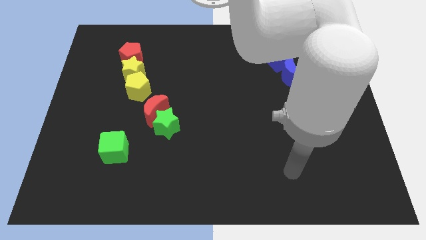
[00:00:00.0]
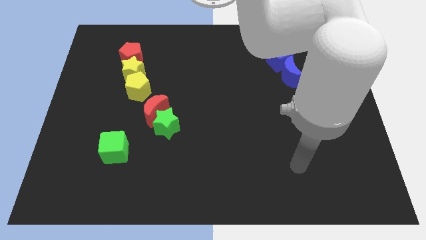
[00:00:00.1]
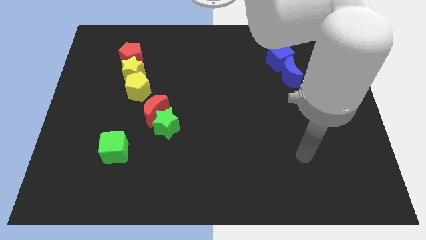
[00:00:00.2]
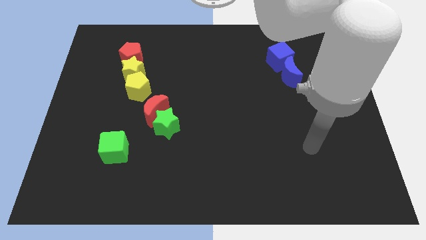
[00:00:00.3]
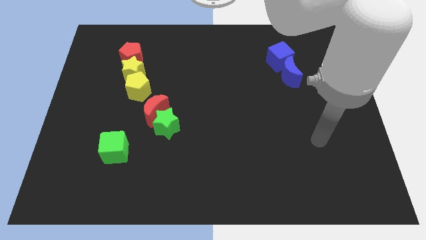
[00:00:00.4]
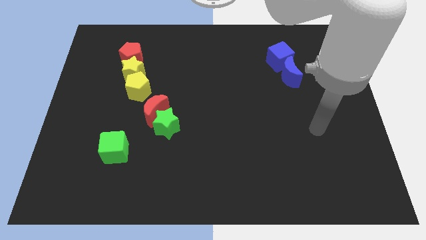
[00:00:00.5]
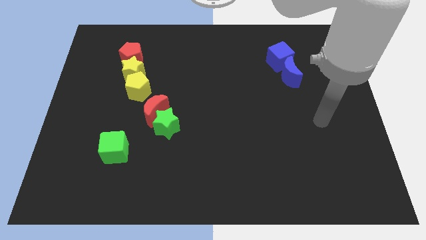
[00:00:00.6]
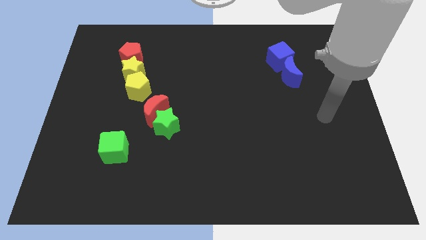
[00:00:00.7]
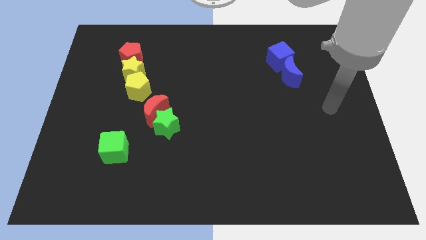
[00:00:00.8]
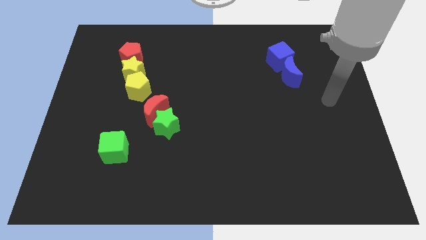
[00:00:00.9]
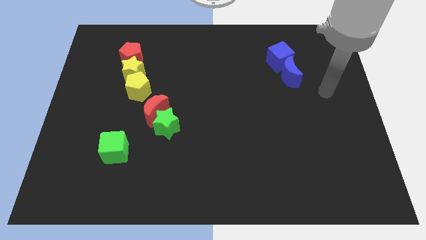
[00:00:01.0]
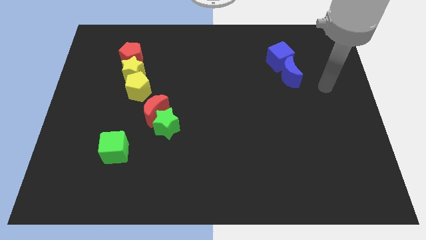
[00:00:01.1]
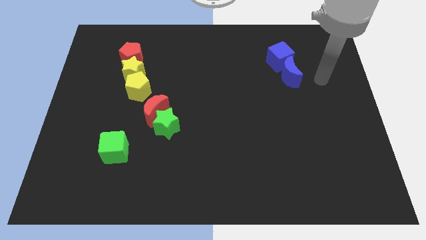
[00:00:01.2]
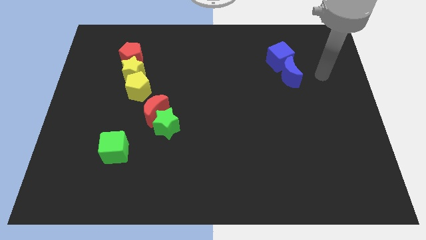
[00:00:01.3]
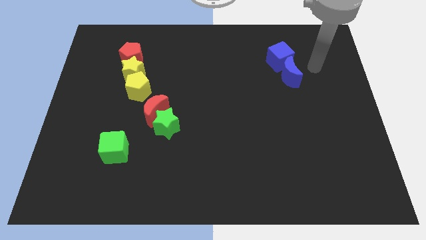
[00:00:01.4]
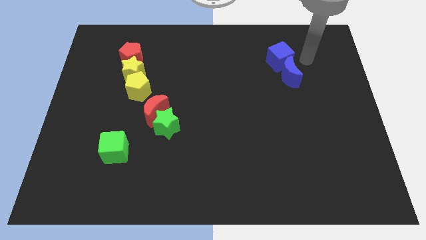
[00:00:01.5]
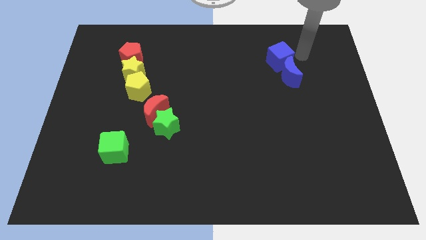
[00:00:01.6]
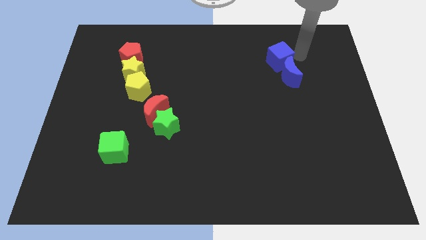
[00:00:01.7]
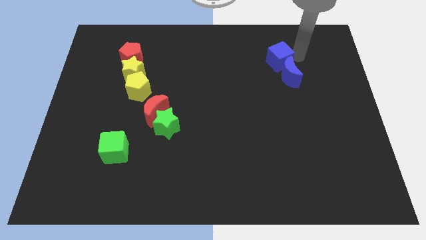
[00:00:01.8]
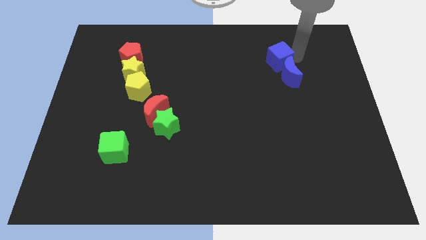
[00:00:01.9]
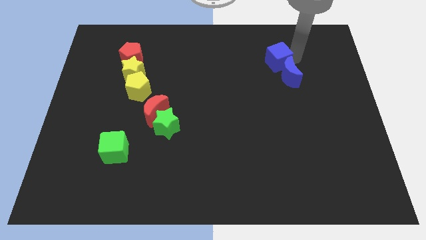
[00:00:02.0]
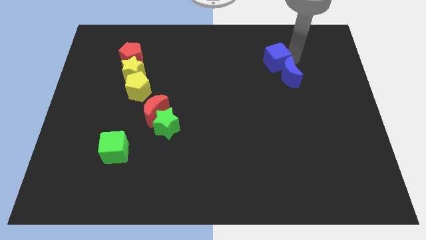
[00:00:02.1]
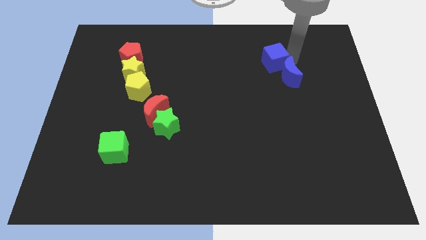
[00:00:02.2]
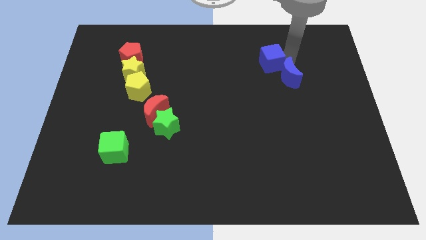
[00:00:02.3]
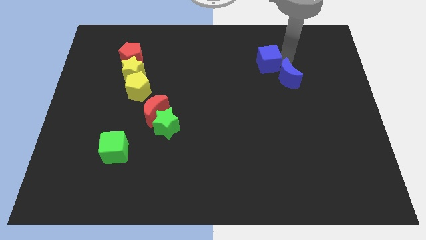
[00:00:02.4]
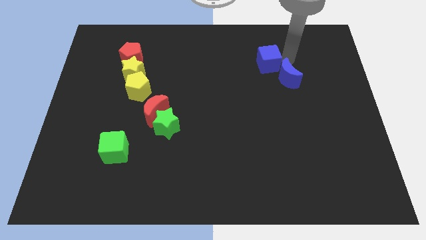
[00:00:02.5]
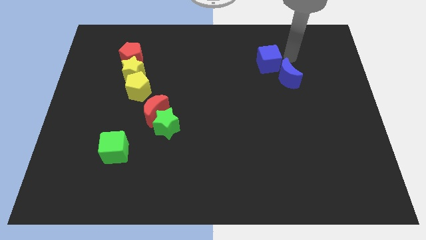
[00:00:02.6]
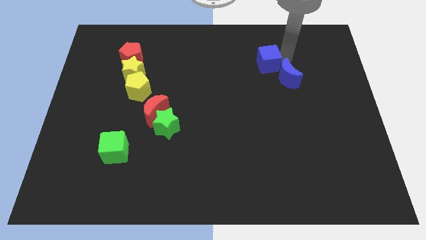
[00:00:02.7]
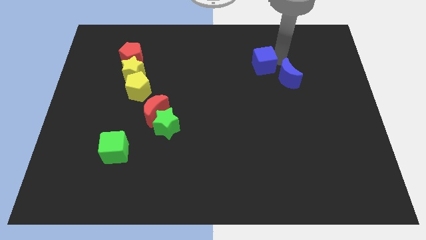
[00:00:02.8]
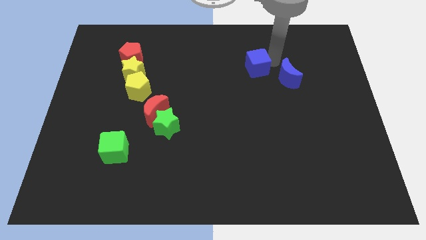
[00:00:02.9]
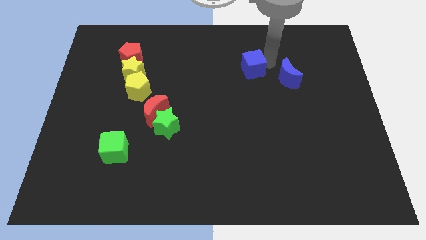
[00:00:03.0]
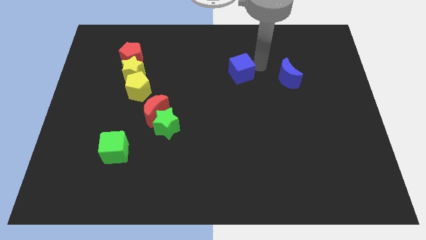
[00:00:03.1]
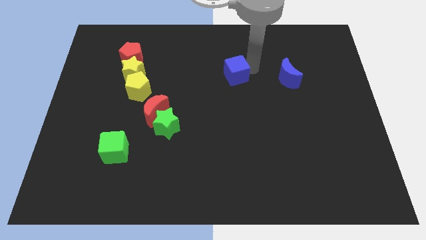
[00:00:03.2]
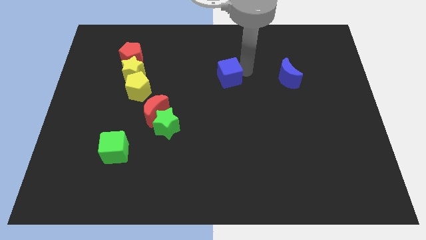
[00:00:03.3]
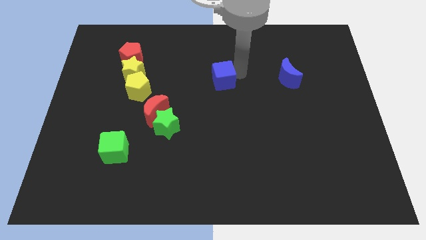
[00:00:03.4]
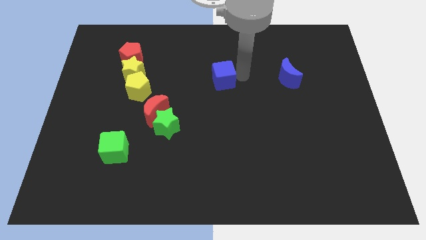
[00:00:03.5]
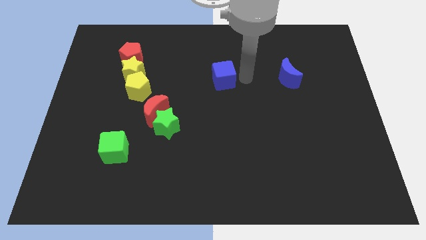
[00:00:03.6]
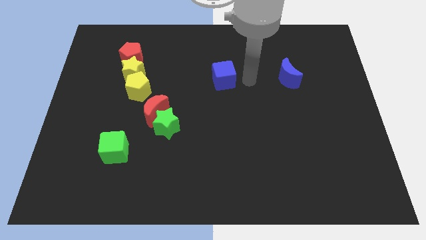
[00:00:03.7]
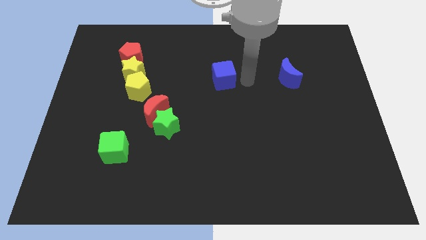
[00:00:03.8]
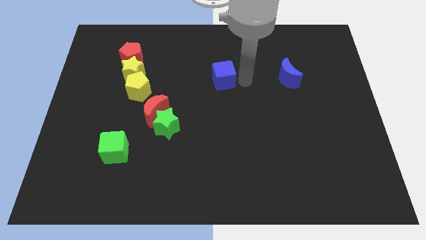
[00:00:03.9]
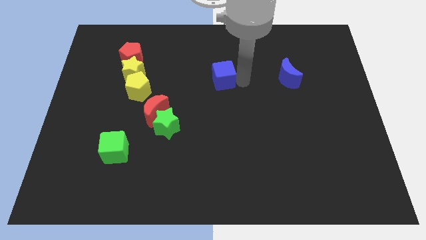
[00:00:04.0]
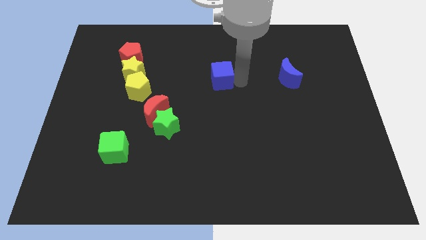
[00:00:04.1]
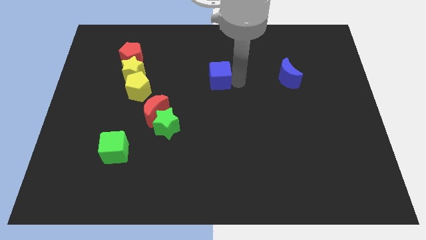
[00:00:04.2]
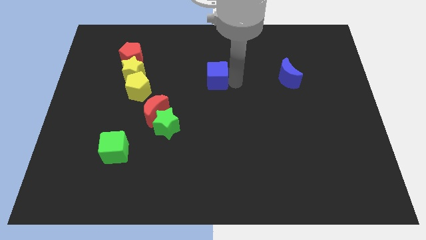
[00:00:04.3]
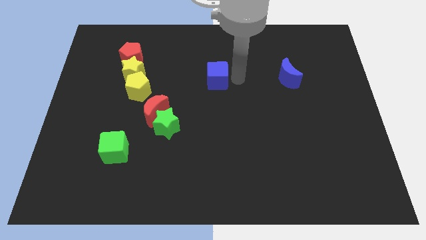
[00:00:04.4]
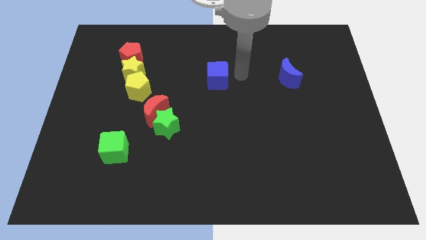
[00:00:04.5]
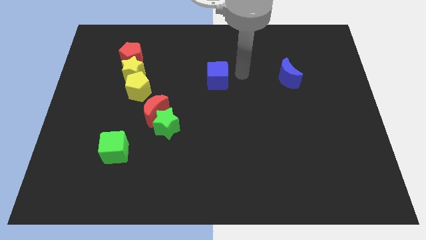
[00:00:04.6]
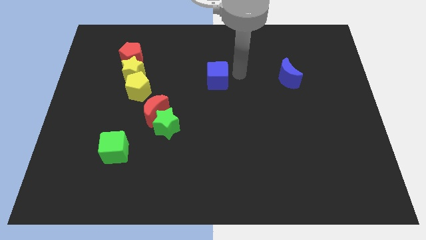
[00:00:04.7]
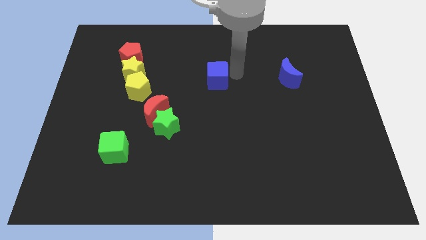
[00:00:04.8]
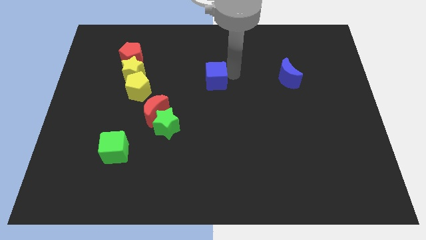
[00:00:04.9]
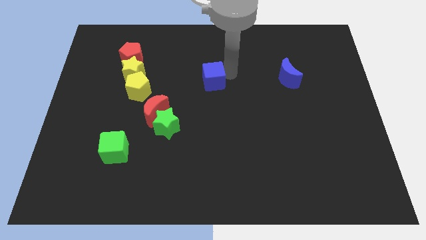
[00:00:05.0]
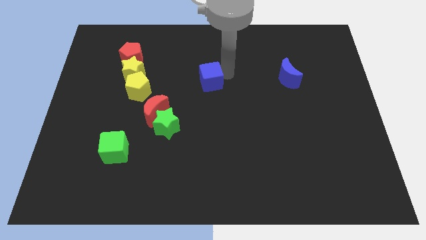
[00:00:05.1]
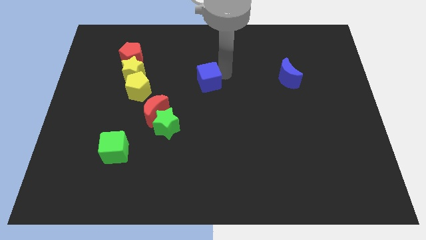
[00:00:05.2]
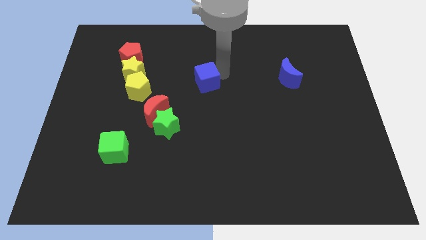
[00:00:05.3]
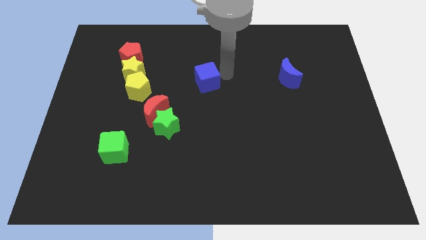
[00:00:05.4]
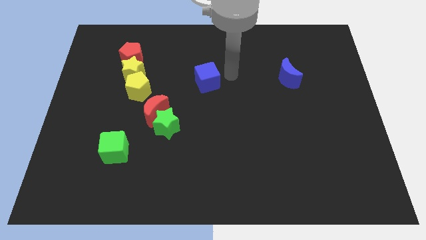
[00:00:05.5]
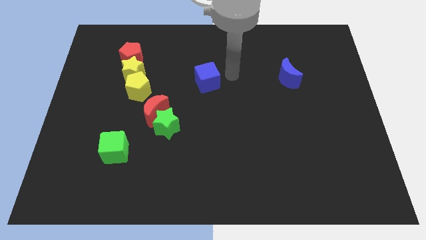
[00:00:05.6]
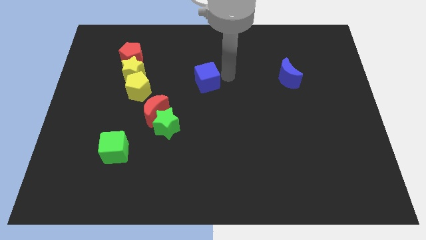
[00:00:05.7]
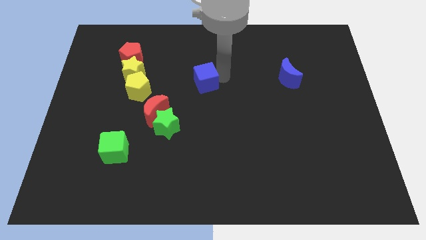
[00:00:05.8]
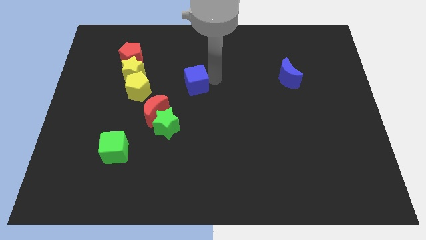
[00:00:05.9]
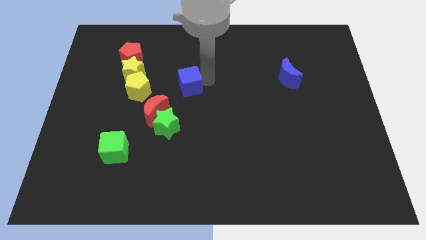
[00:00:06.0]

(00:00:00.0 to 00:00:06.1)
move the blue cube above the green star

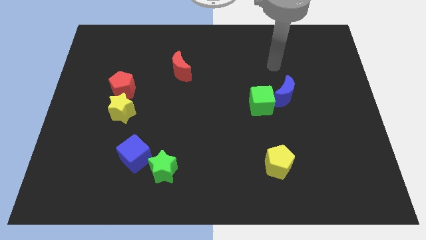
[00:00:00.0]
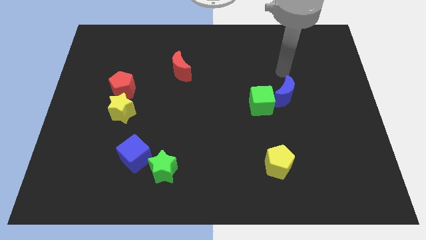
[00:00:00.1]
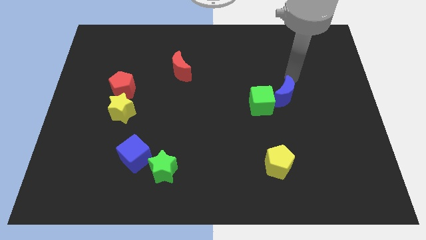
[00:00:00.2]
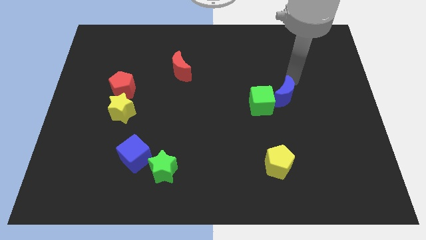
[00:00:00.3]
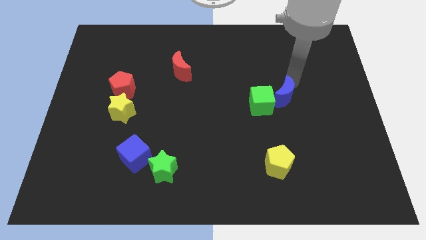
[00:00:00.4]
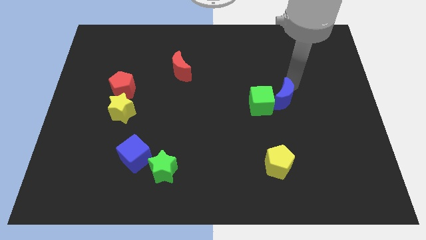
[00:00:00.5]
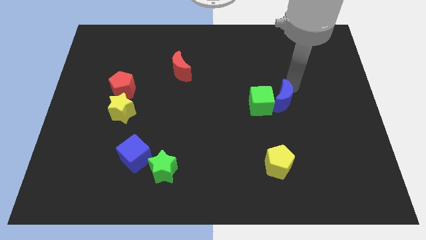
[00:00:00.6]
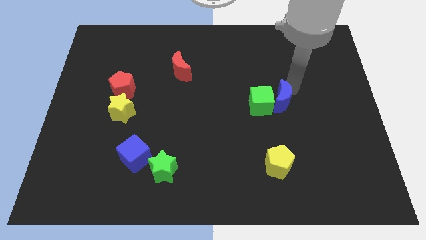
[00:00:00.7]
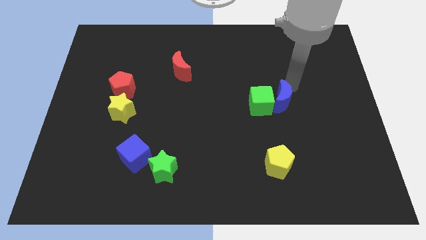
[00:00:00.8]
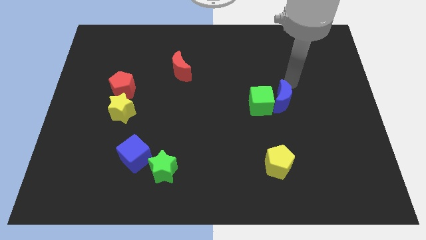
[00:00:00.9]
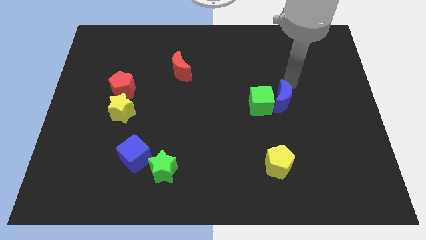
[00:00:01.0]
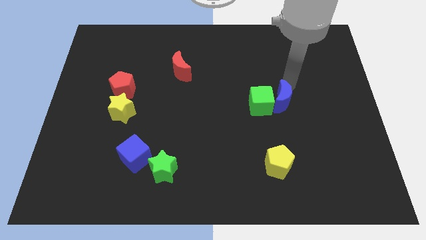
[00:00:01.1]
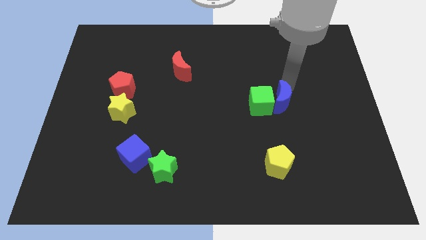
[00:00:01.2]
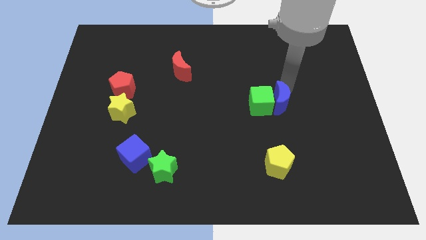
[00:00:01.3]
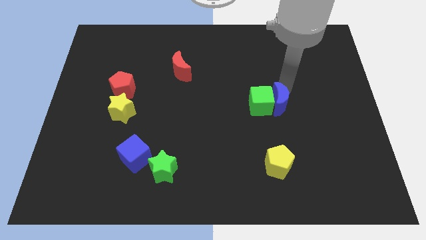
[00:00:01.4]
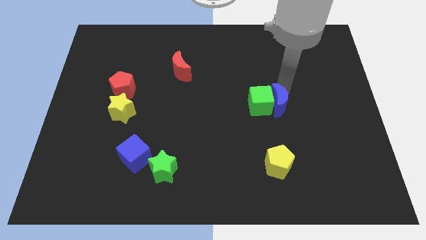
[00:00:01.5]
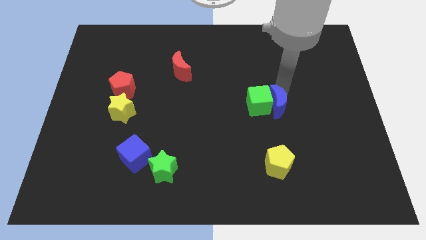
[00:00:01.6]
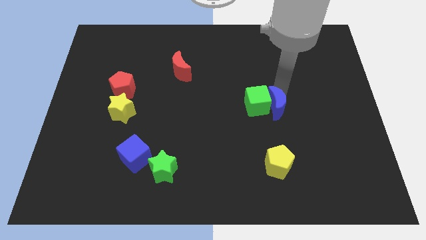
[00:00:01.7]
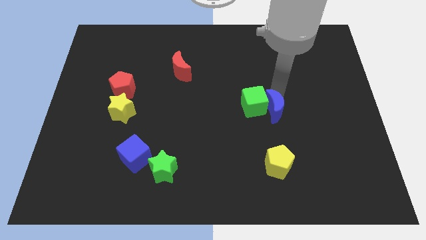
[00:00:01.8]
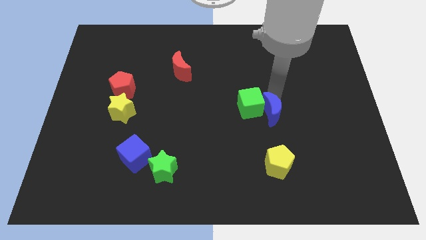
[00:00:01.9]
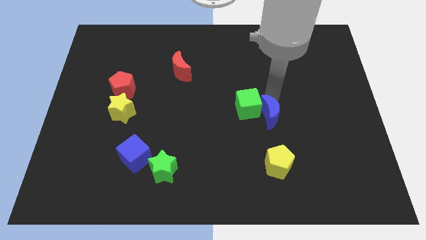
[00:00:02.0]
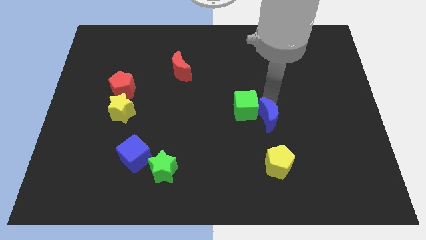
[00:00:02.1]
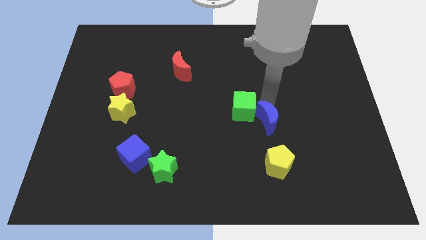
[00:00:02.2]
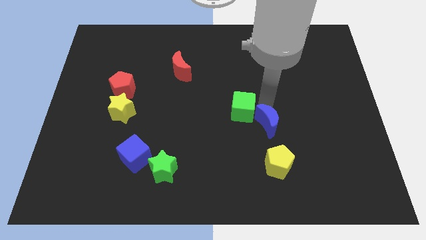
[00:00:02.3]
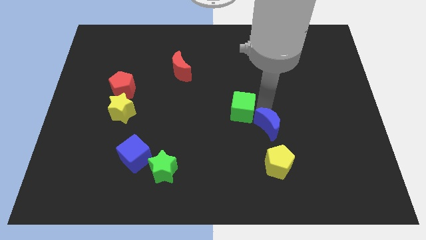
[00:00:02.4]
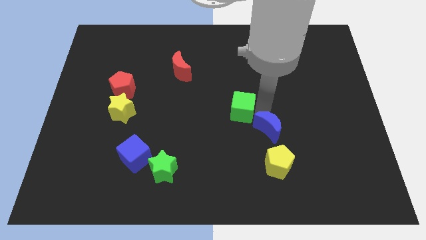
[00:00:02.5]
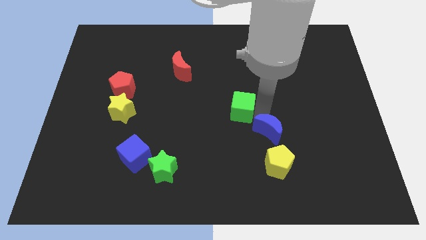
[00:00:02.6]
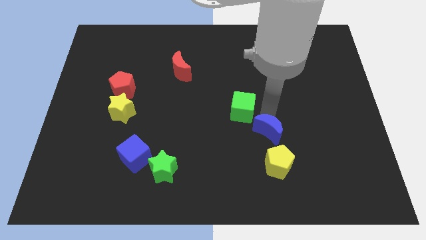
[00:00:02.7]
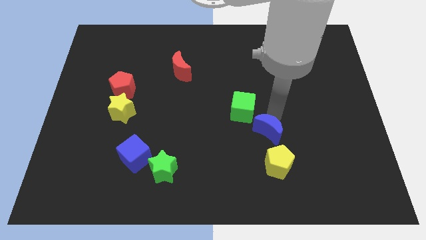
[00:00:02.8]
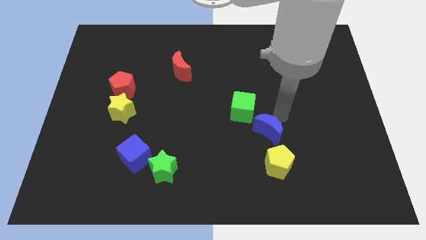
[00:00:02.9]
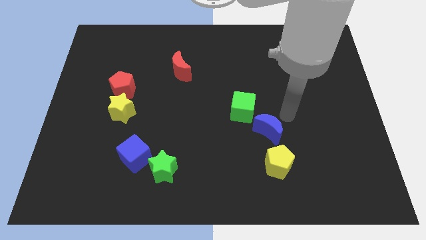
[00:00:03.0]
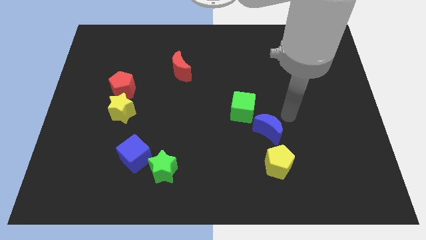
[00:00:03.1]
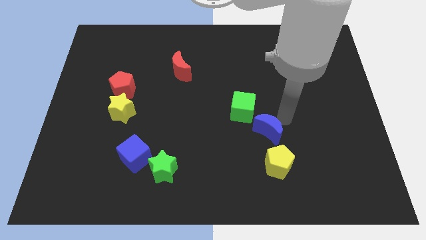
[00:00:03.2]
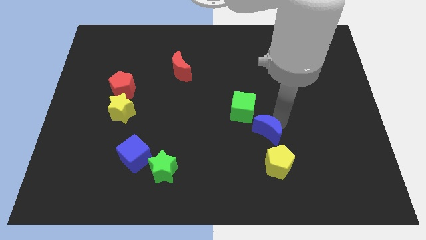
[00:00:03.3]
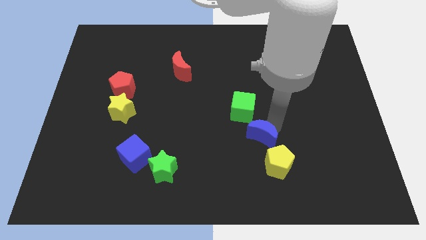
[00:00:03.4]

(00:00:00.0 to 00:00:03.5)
move the blue moon to the bottom side of the green cube
